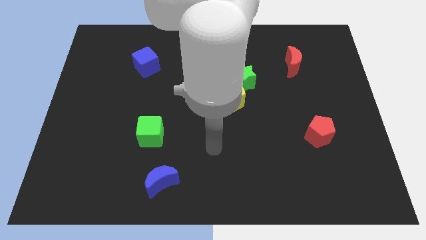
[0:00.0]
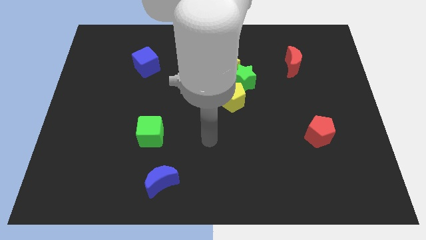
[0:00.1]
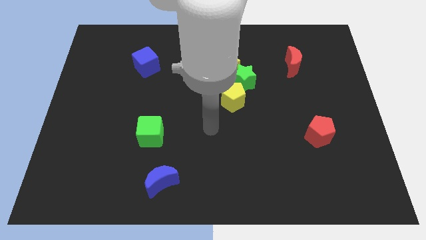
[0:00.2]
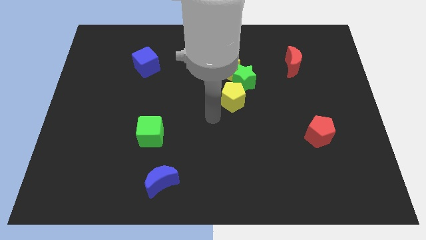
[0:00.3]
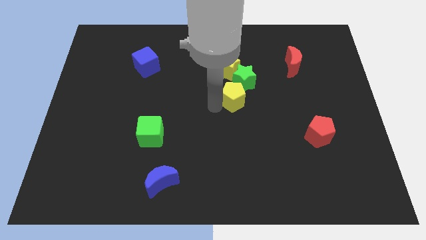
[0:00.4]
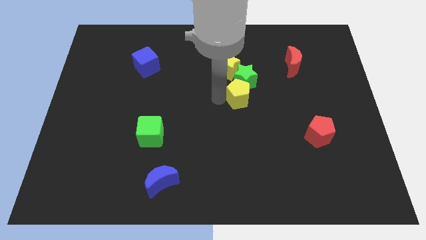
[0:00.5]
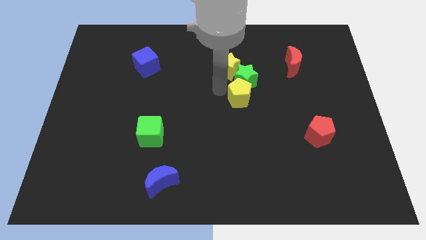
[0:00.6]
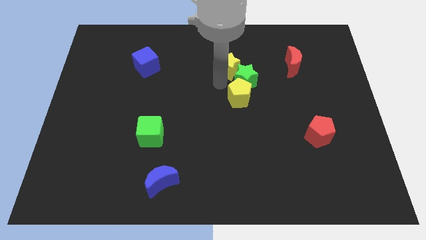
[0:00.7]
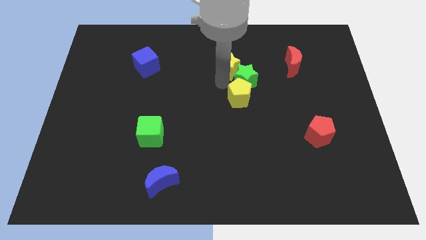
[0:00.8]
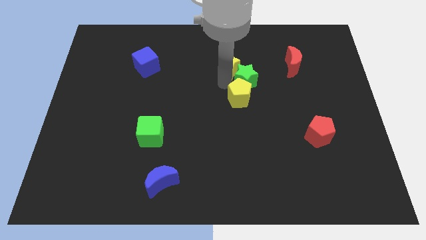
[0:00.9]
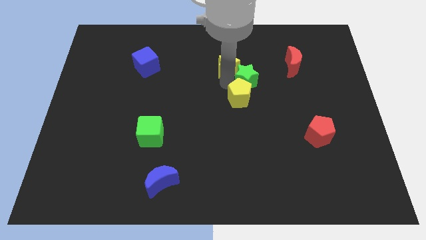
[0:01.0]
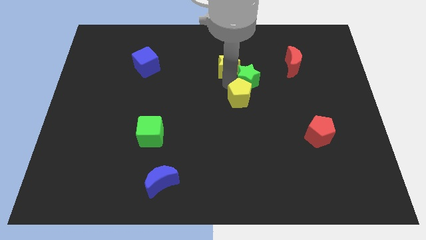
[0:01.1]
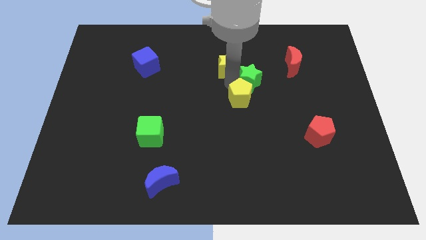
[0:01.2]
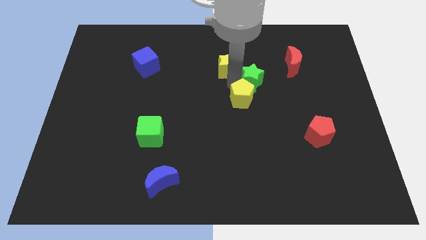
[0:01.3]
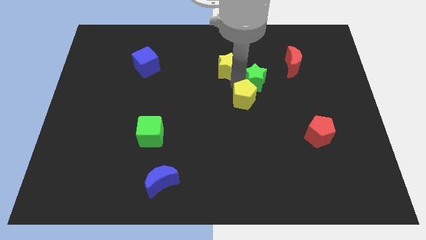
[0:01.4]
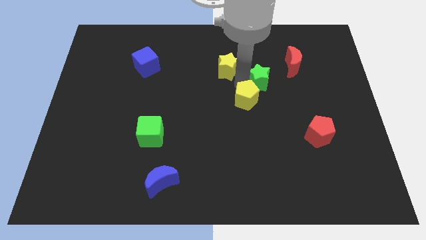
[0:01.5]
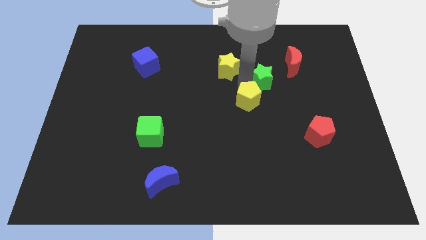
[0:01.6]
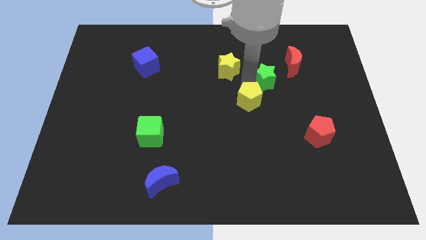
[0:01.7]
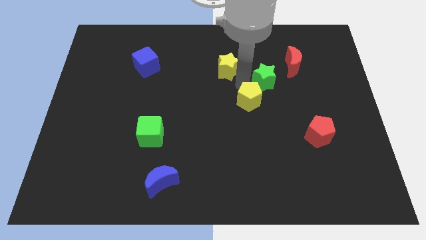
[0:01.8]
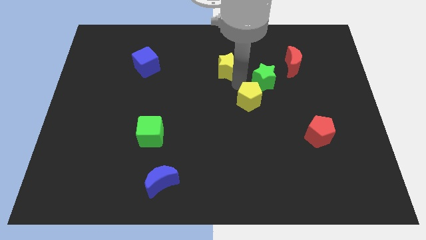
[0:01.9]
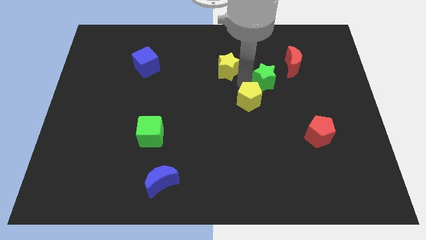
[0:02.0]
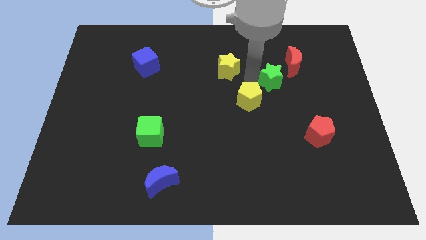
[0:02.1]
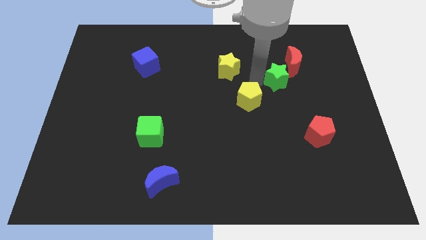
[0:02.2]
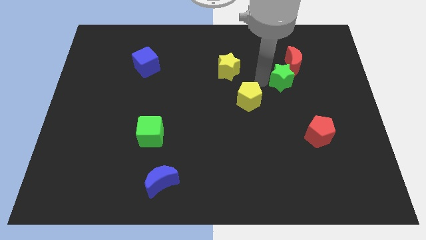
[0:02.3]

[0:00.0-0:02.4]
pull the green star apart from the yellow star and yellow pentagon

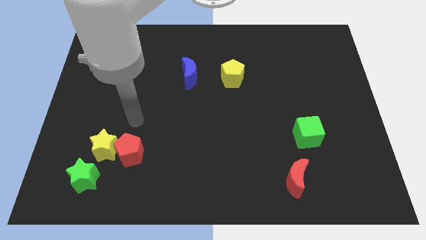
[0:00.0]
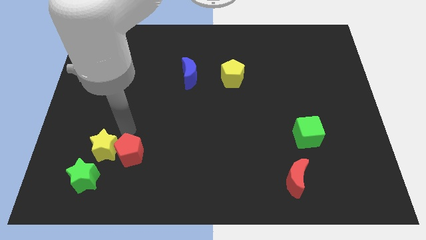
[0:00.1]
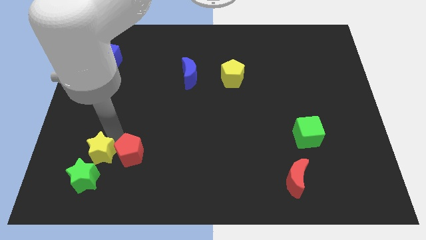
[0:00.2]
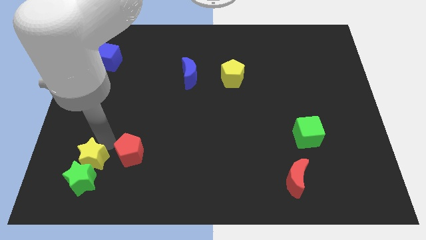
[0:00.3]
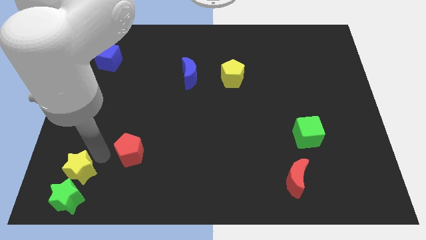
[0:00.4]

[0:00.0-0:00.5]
pull the red pentagon apart from the yellow star

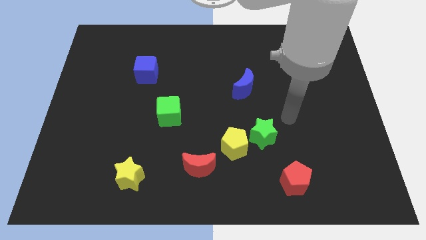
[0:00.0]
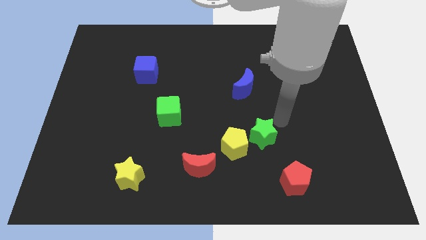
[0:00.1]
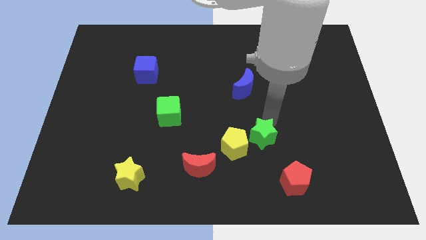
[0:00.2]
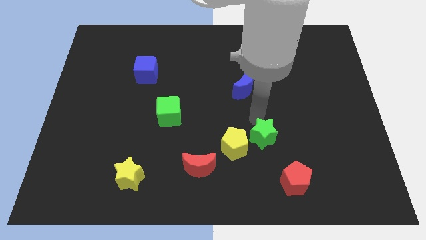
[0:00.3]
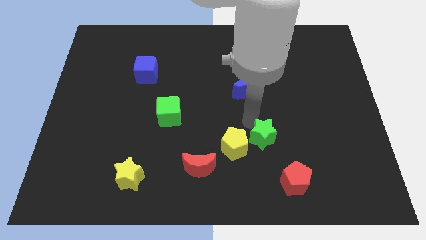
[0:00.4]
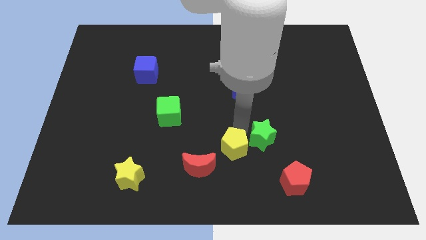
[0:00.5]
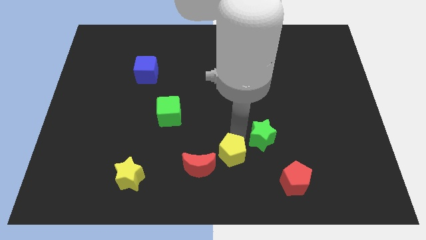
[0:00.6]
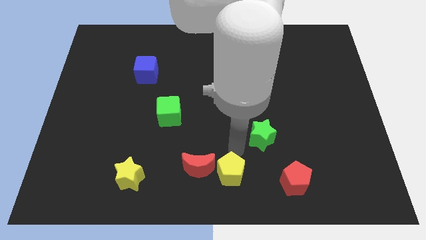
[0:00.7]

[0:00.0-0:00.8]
move the green star away from the yellow pentagon

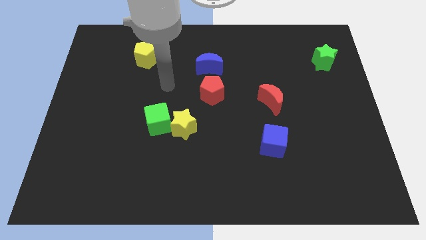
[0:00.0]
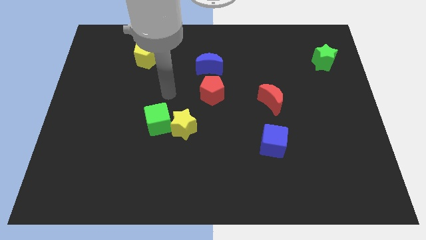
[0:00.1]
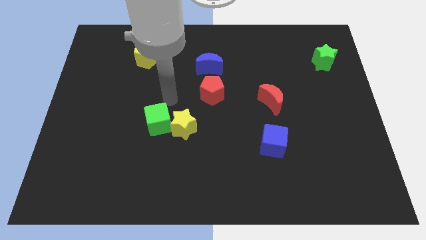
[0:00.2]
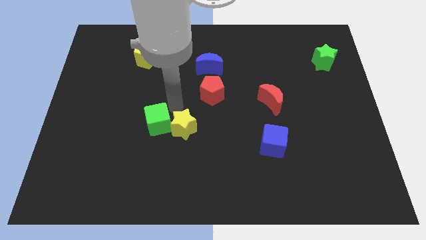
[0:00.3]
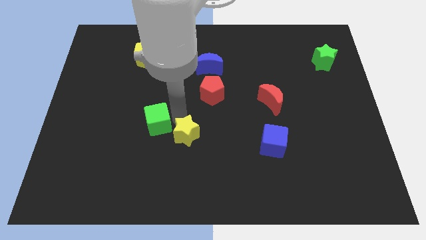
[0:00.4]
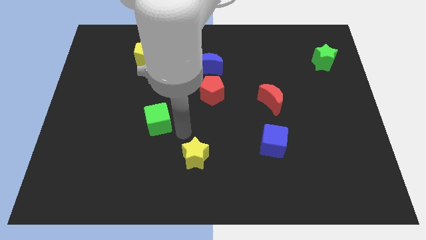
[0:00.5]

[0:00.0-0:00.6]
separate the green cube from the yellow star

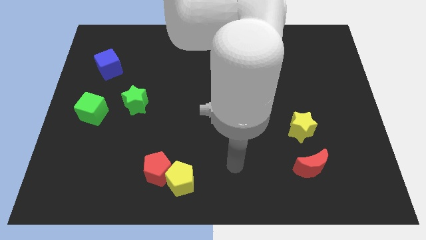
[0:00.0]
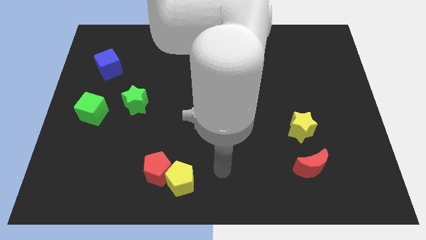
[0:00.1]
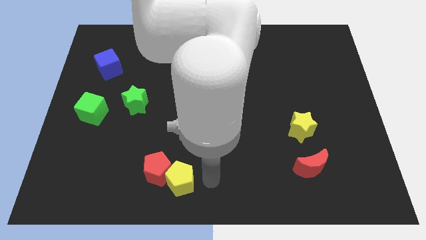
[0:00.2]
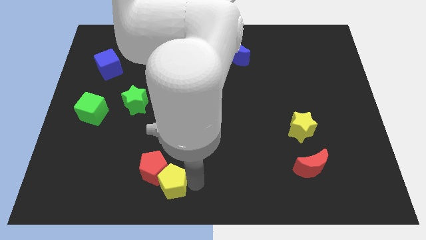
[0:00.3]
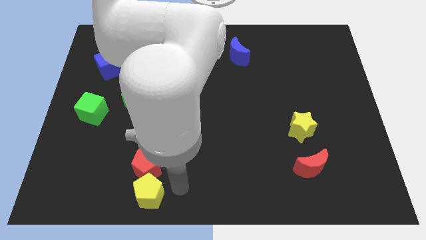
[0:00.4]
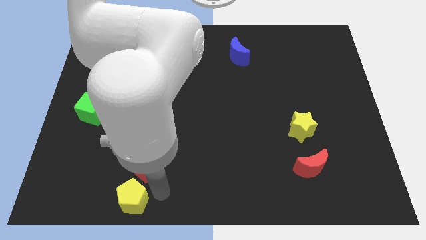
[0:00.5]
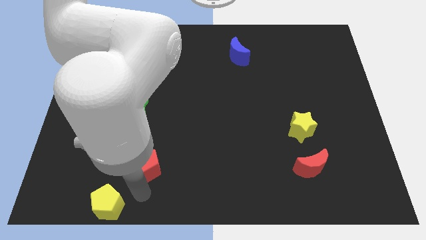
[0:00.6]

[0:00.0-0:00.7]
pull the red pentagon apart from the yellow pentagon

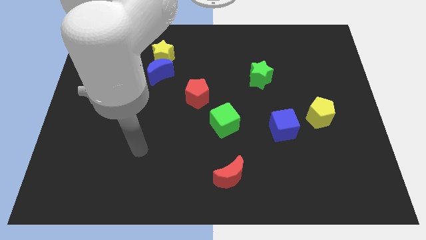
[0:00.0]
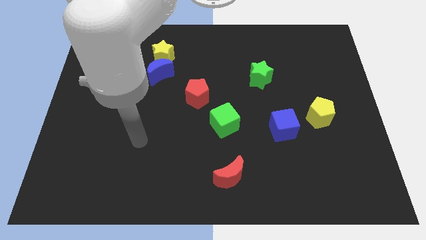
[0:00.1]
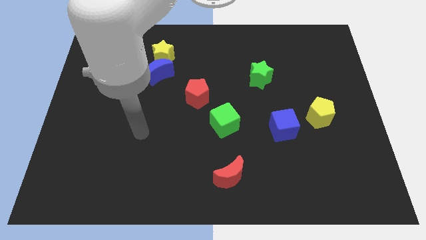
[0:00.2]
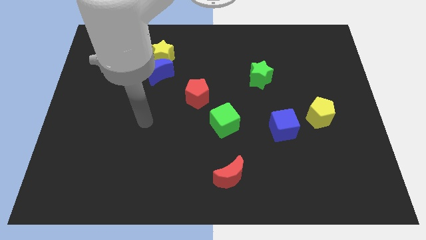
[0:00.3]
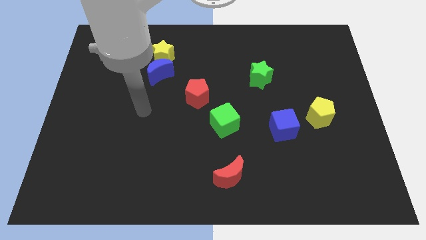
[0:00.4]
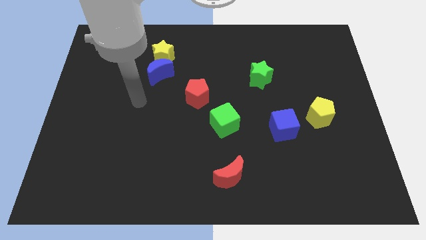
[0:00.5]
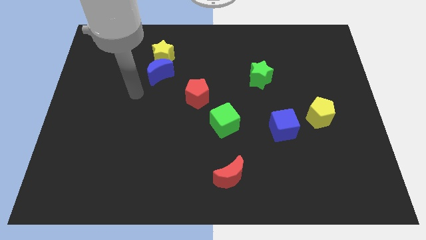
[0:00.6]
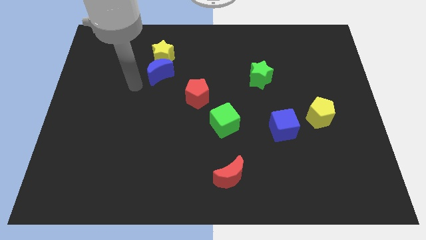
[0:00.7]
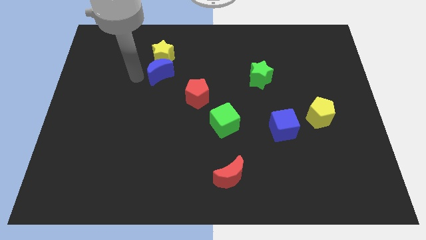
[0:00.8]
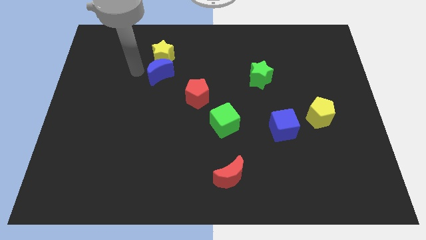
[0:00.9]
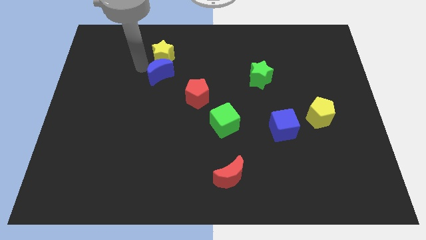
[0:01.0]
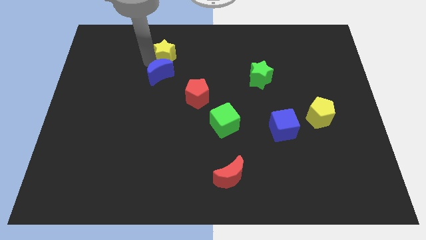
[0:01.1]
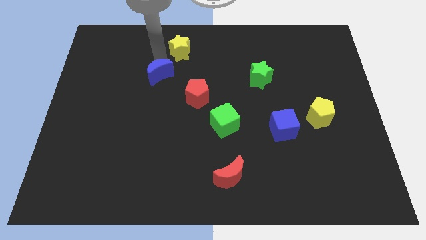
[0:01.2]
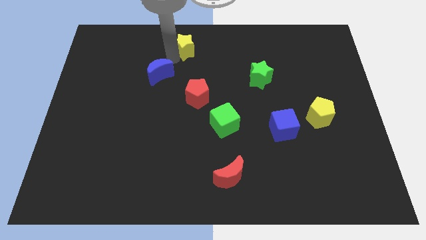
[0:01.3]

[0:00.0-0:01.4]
move the blue moon away from the yellow star

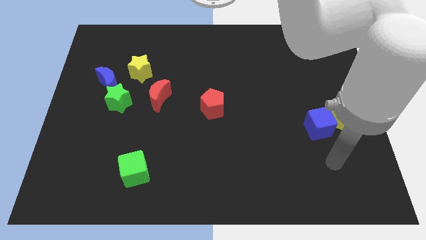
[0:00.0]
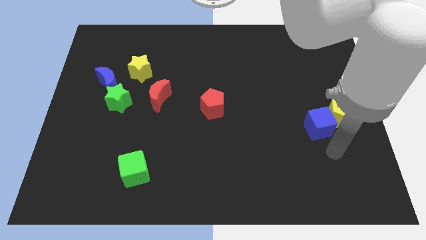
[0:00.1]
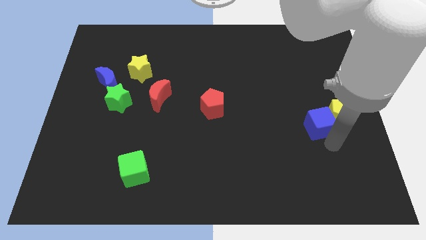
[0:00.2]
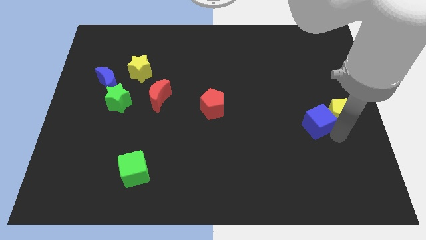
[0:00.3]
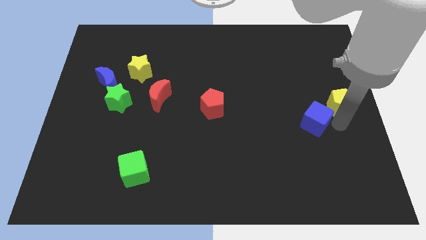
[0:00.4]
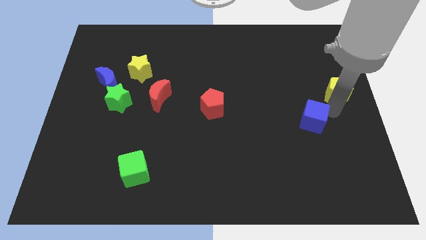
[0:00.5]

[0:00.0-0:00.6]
pull the blue cube apart from the yellow pentagon

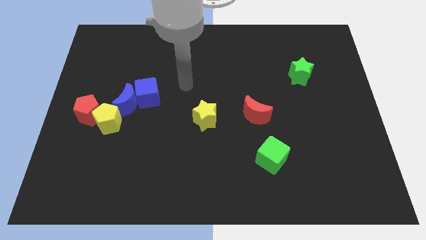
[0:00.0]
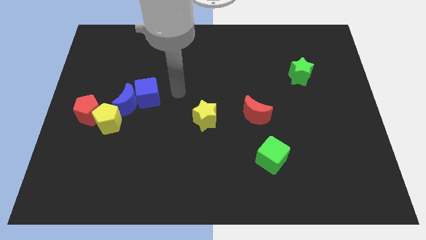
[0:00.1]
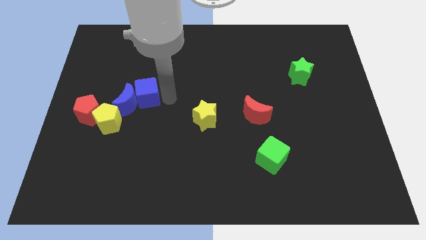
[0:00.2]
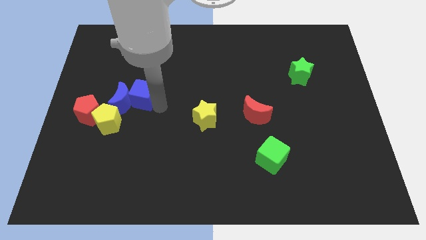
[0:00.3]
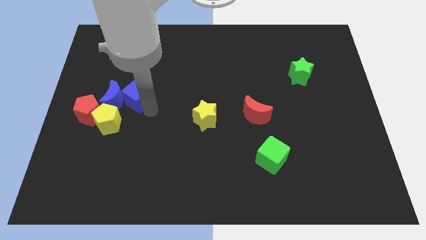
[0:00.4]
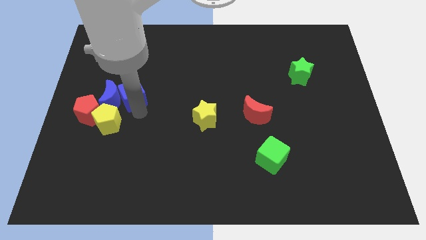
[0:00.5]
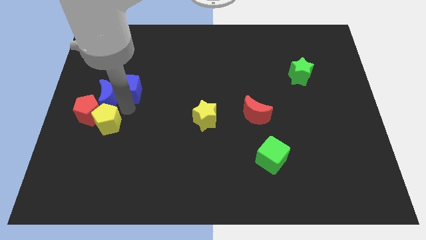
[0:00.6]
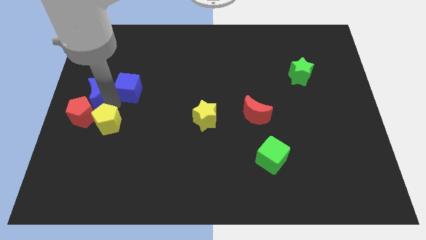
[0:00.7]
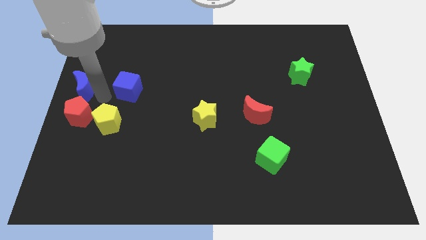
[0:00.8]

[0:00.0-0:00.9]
separate the blue cube from the blue moon

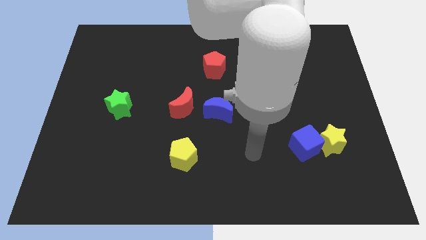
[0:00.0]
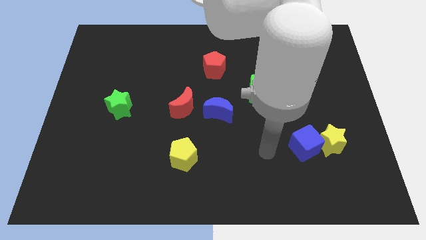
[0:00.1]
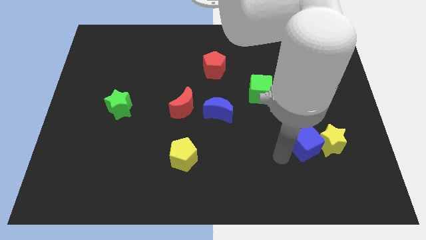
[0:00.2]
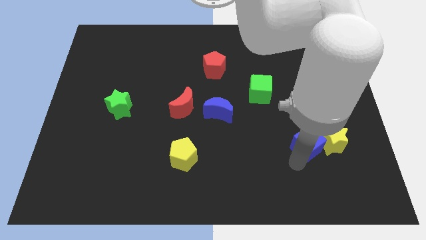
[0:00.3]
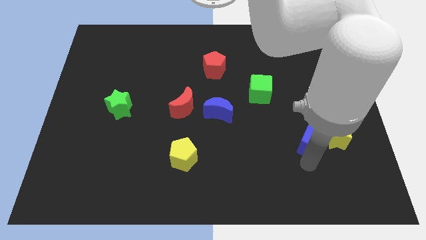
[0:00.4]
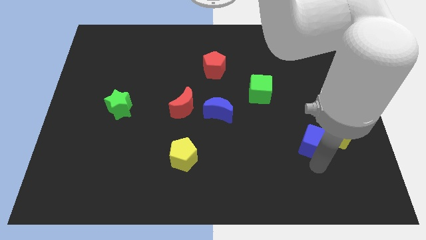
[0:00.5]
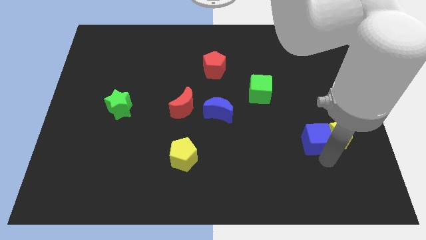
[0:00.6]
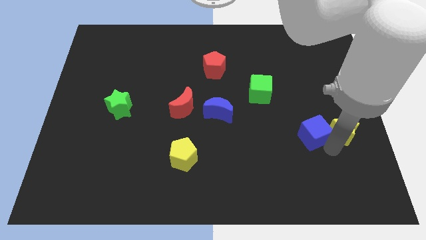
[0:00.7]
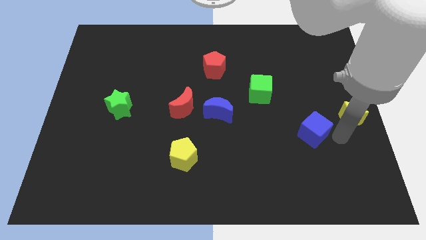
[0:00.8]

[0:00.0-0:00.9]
pull the blue cube apart from the yellow star

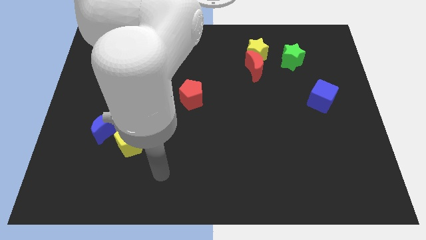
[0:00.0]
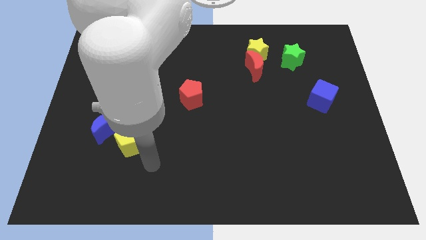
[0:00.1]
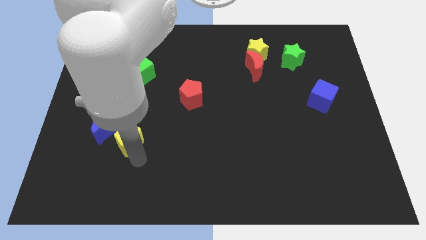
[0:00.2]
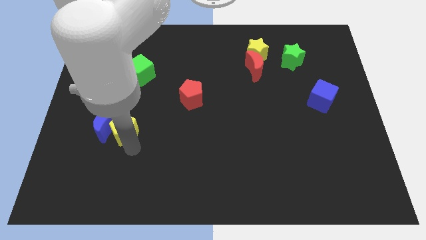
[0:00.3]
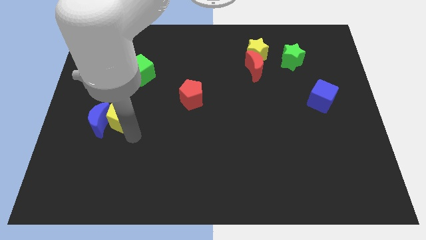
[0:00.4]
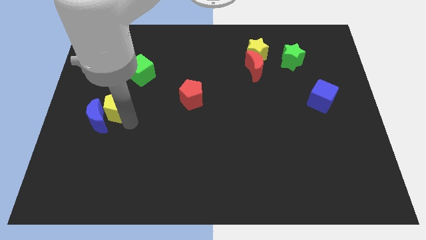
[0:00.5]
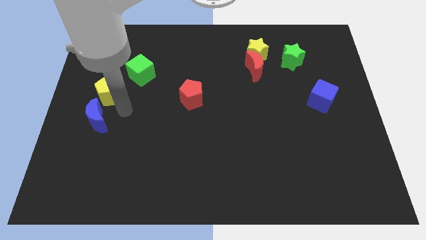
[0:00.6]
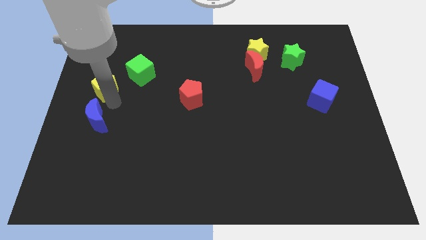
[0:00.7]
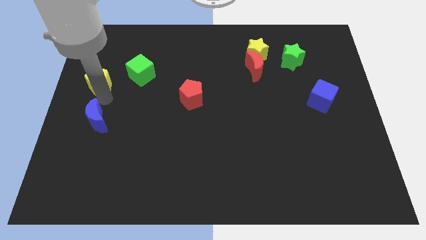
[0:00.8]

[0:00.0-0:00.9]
pull the blue moon apart from the yellow pentagon
